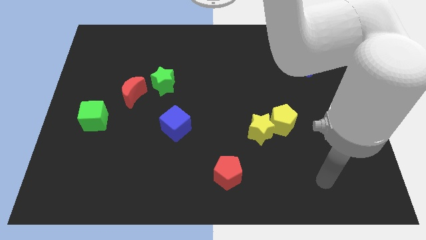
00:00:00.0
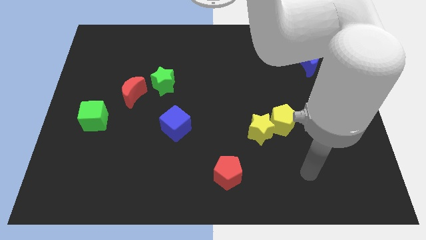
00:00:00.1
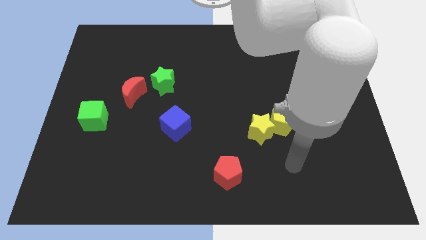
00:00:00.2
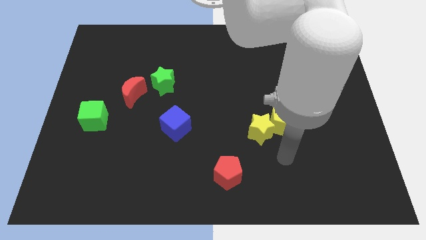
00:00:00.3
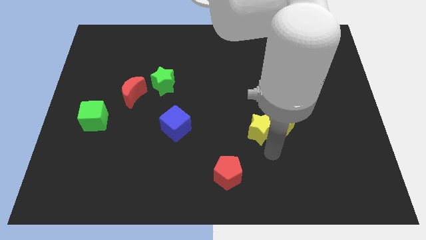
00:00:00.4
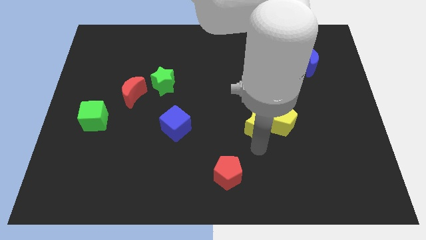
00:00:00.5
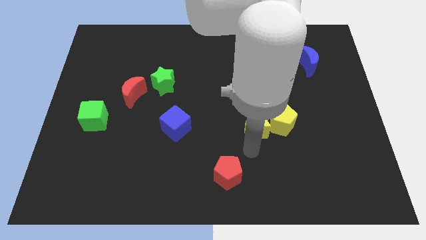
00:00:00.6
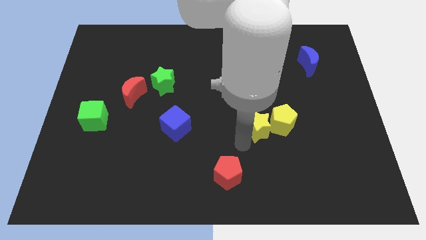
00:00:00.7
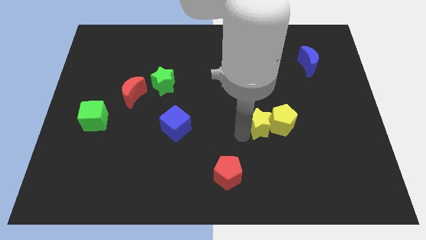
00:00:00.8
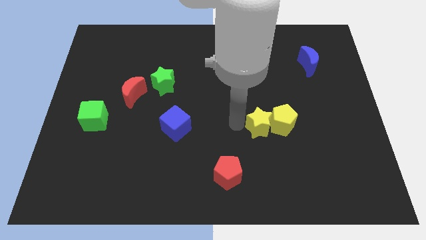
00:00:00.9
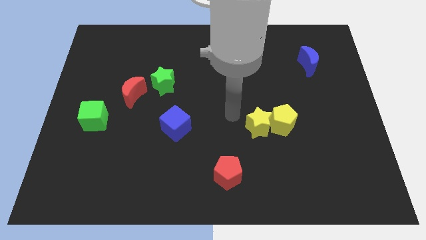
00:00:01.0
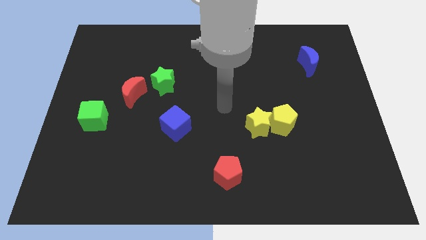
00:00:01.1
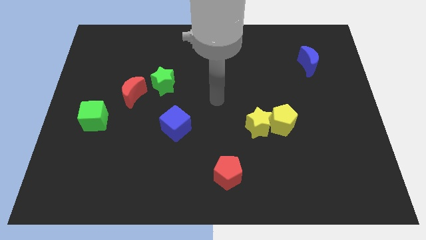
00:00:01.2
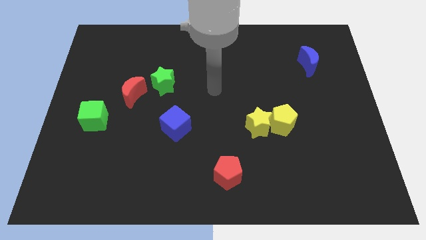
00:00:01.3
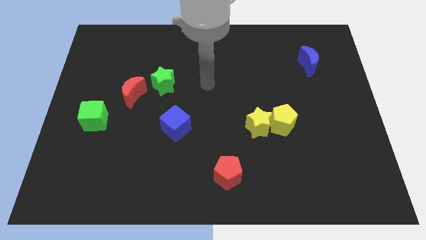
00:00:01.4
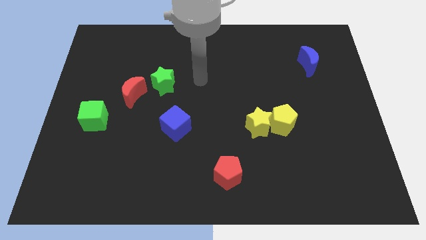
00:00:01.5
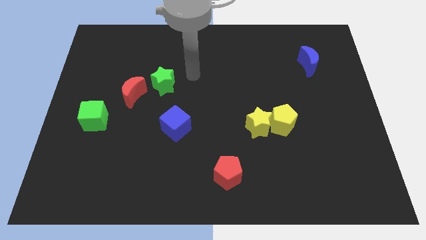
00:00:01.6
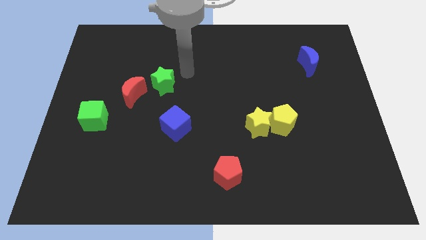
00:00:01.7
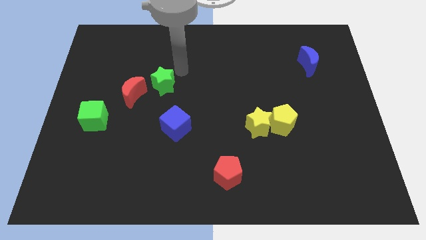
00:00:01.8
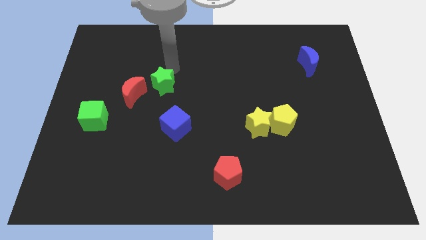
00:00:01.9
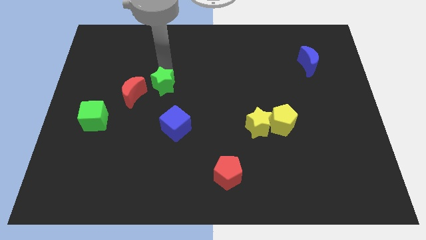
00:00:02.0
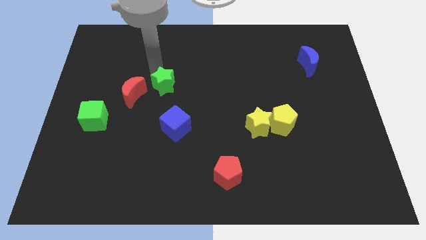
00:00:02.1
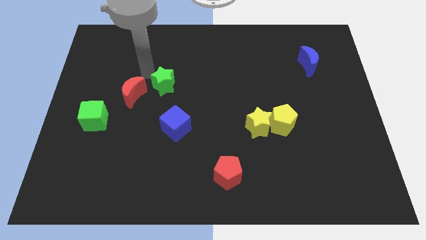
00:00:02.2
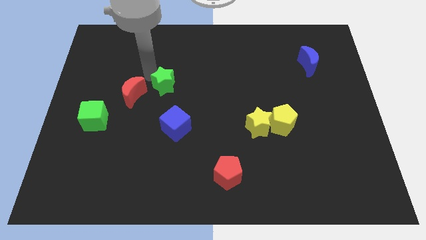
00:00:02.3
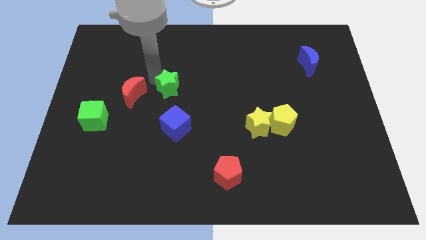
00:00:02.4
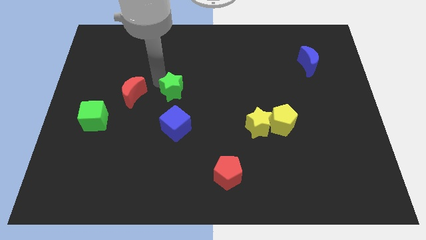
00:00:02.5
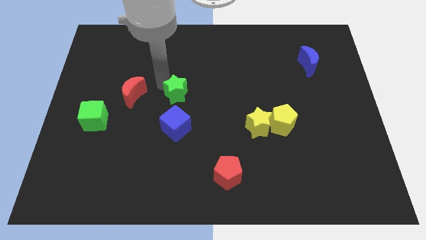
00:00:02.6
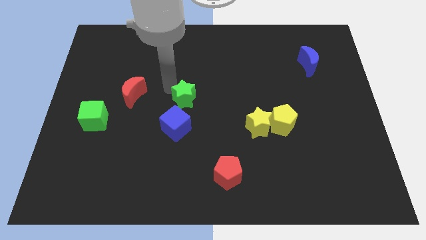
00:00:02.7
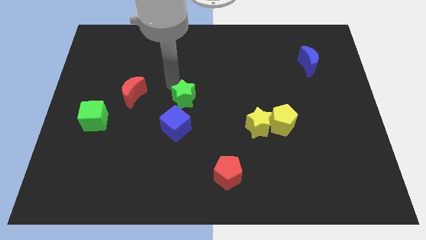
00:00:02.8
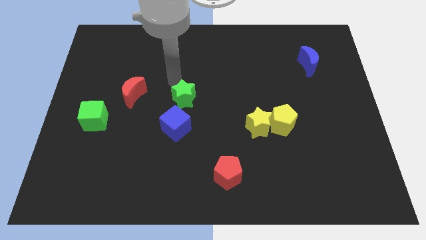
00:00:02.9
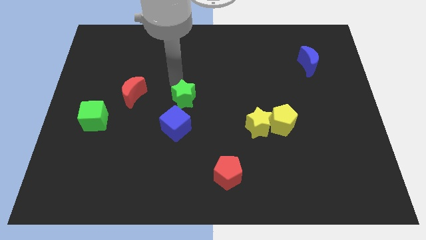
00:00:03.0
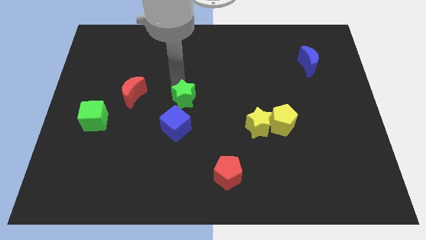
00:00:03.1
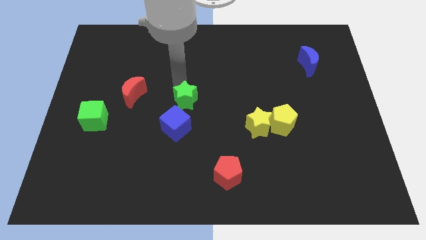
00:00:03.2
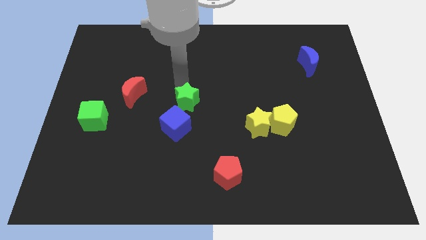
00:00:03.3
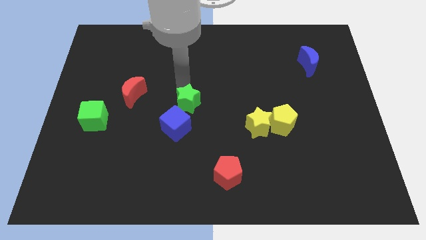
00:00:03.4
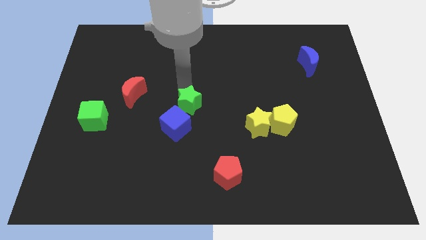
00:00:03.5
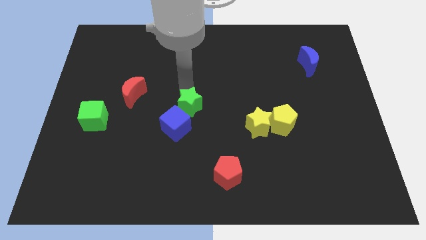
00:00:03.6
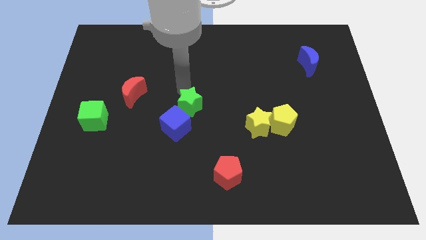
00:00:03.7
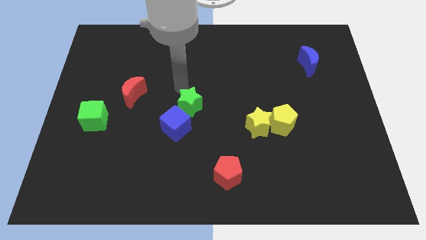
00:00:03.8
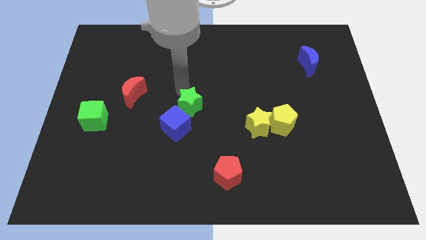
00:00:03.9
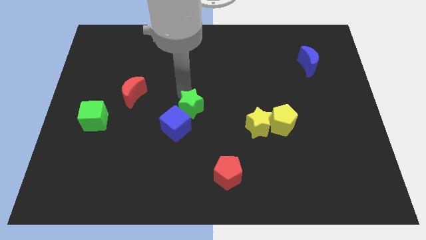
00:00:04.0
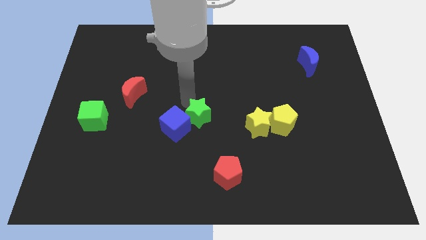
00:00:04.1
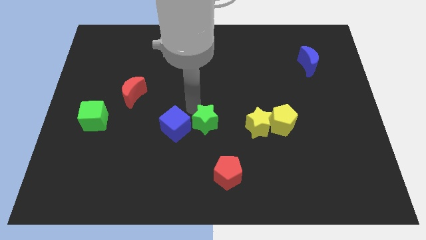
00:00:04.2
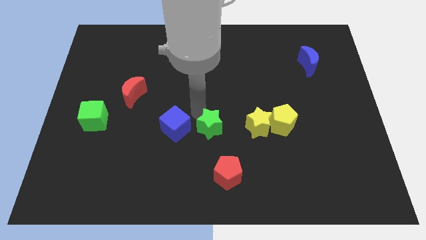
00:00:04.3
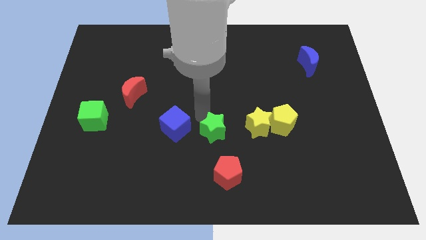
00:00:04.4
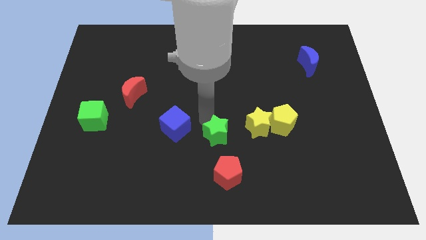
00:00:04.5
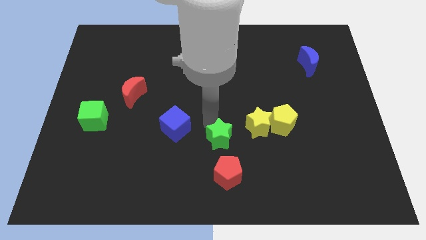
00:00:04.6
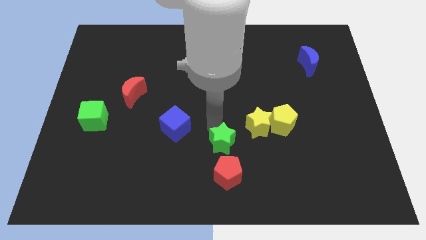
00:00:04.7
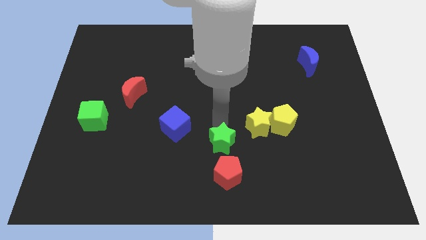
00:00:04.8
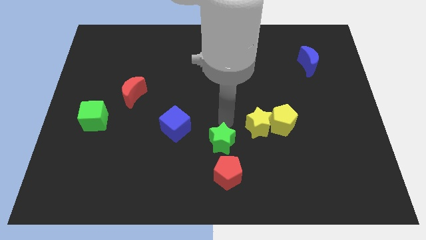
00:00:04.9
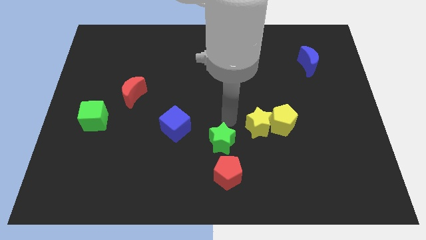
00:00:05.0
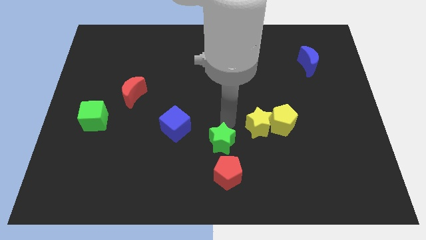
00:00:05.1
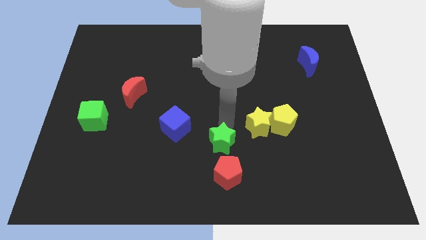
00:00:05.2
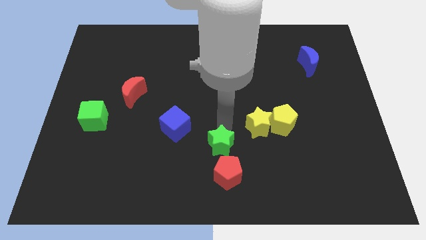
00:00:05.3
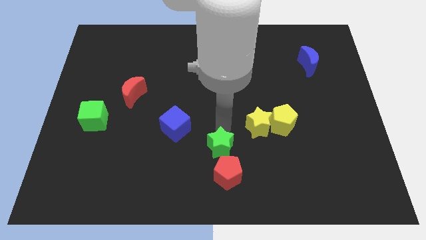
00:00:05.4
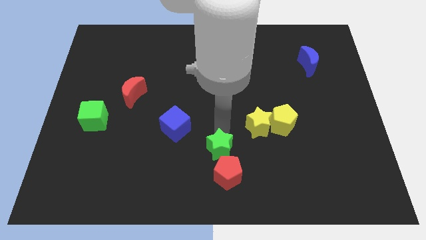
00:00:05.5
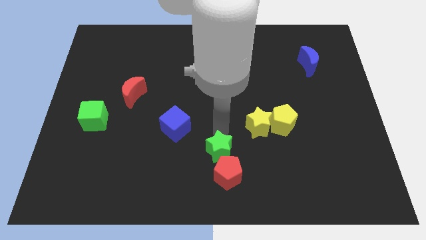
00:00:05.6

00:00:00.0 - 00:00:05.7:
push the green star next to the red pentagon

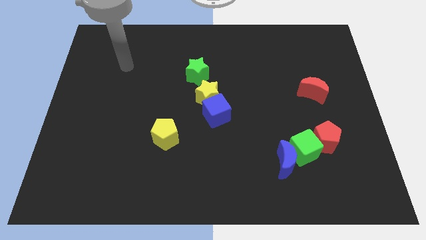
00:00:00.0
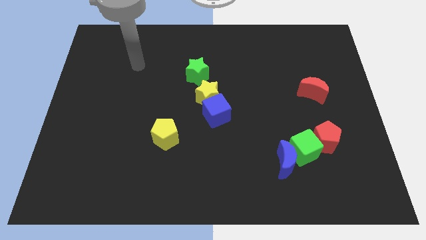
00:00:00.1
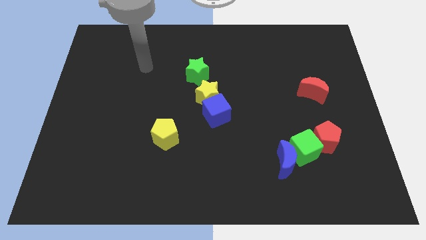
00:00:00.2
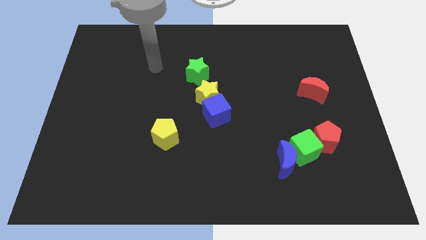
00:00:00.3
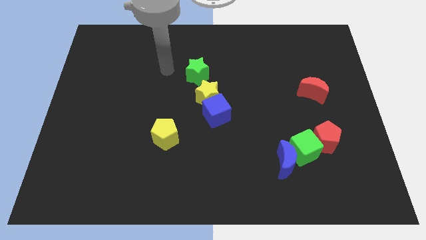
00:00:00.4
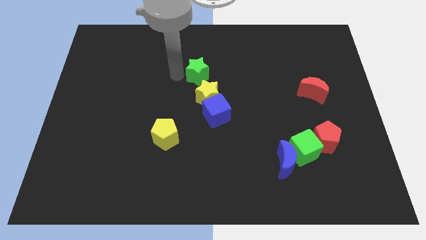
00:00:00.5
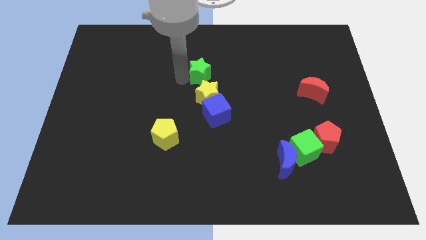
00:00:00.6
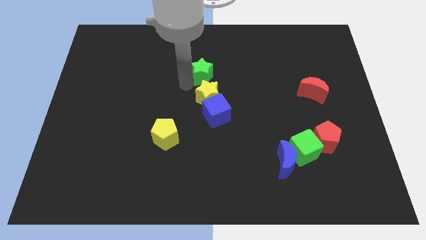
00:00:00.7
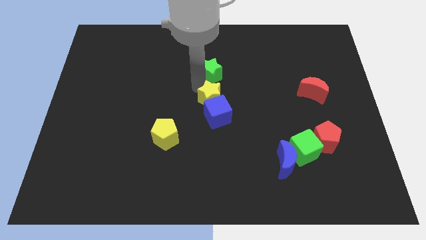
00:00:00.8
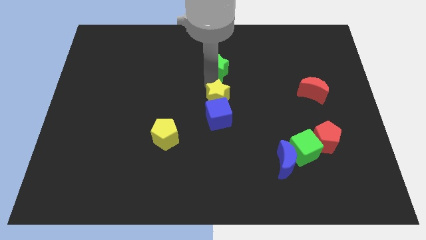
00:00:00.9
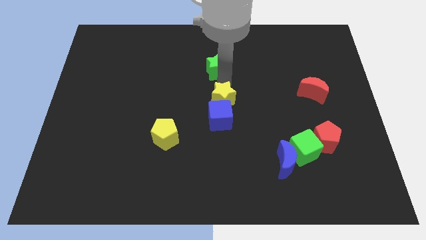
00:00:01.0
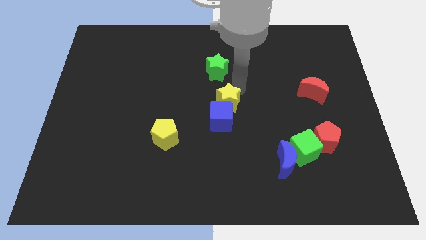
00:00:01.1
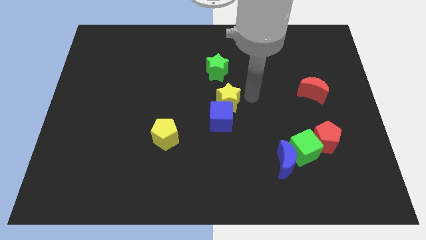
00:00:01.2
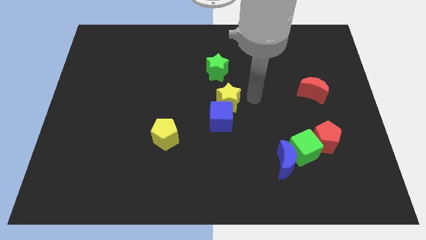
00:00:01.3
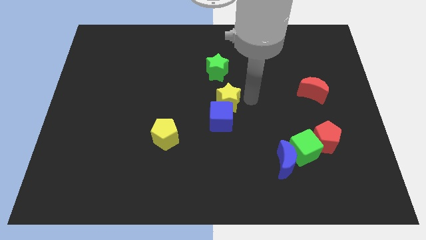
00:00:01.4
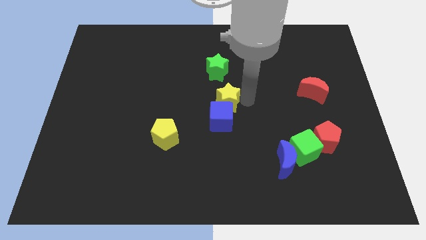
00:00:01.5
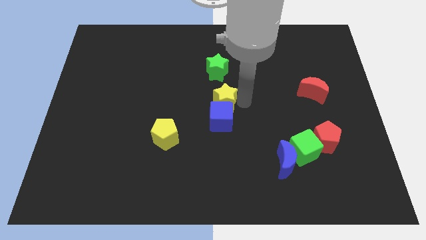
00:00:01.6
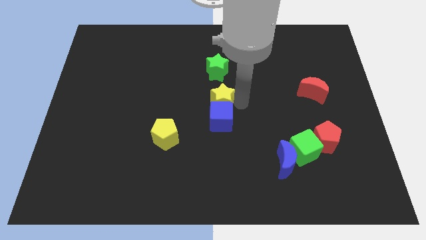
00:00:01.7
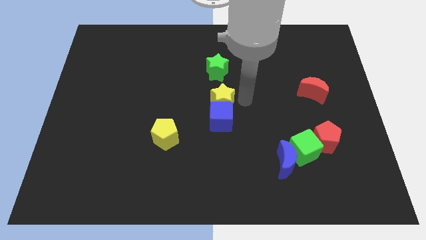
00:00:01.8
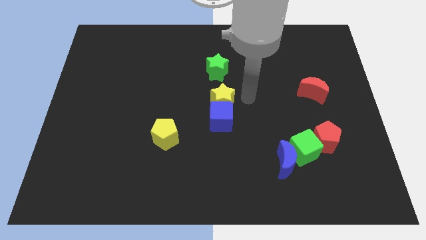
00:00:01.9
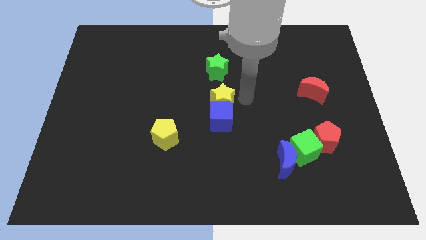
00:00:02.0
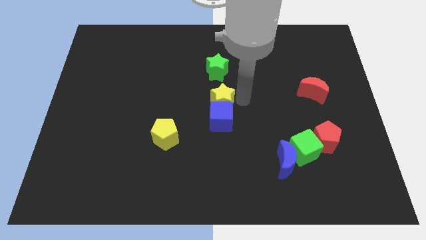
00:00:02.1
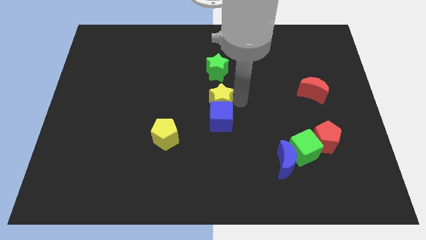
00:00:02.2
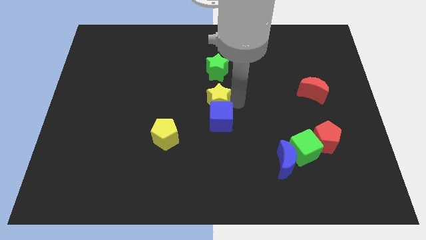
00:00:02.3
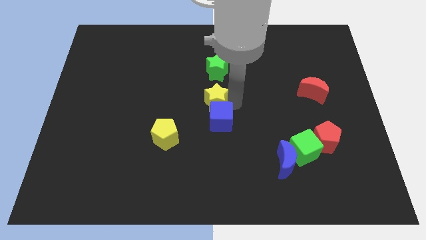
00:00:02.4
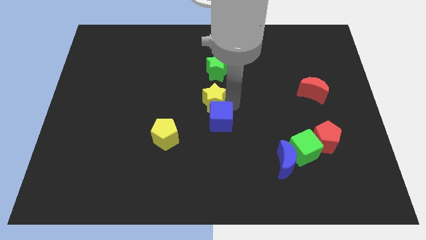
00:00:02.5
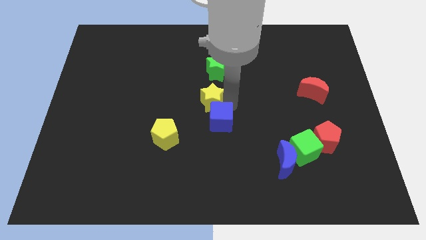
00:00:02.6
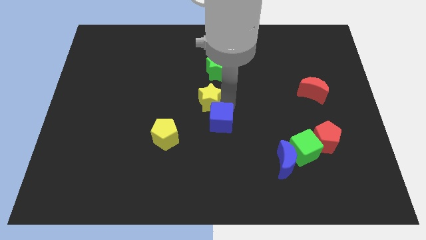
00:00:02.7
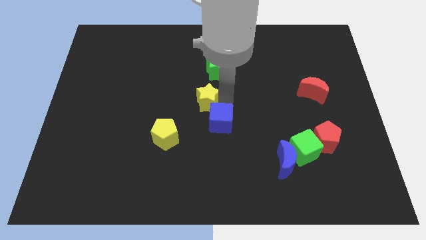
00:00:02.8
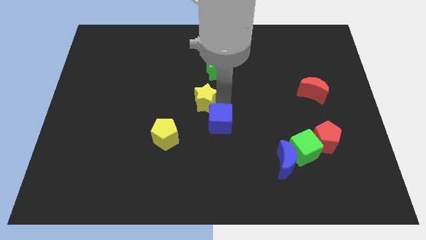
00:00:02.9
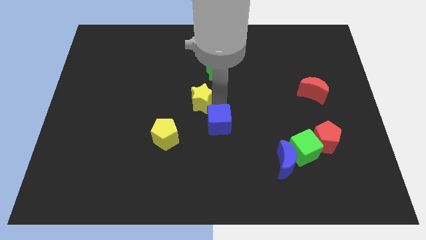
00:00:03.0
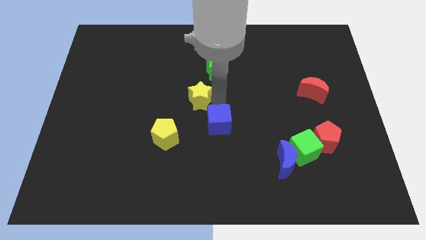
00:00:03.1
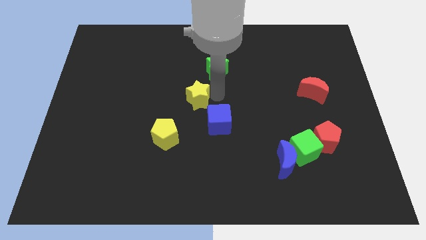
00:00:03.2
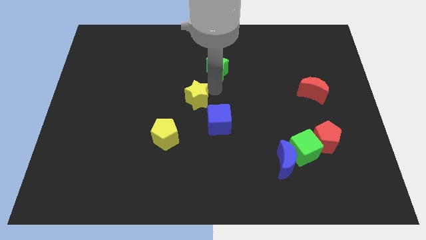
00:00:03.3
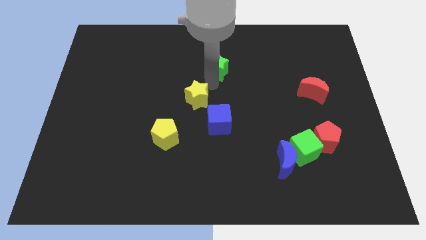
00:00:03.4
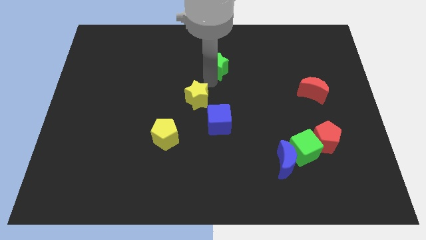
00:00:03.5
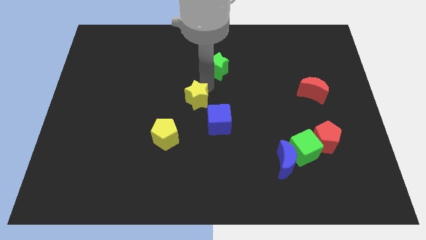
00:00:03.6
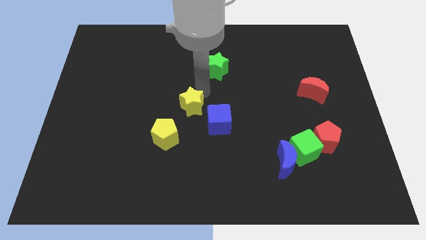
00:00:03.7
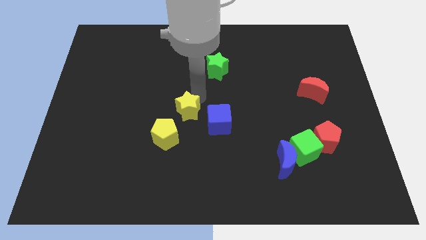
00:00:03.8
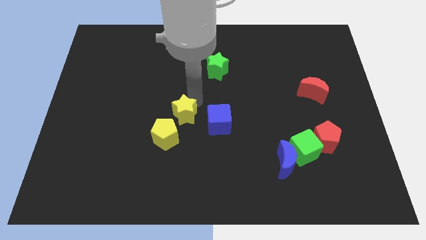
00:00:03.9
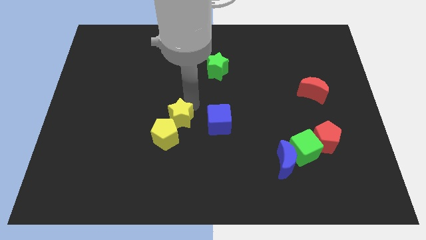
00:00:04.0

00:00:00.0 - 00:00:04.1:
slide the yellow star to the yellow pentagon
